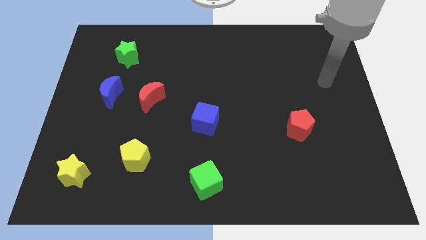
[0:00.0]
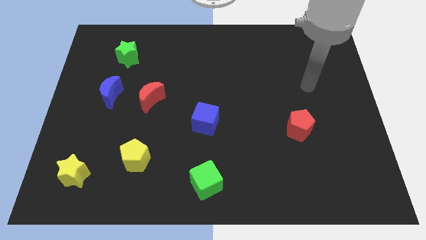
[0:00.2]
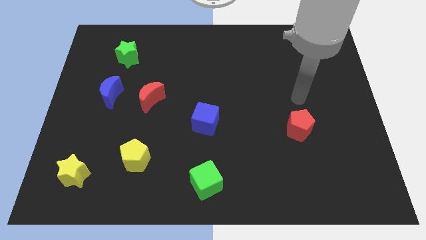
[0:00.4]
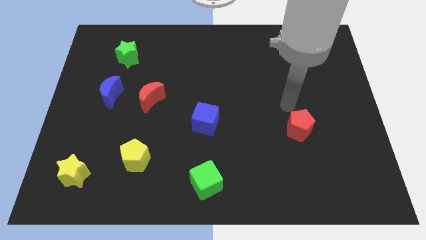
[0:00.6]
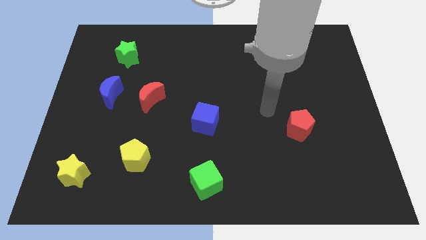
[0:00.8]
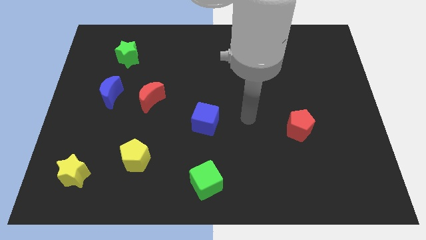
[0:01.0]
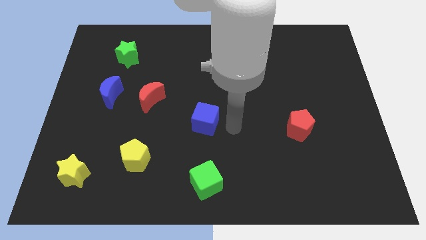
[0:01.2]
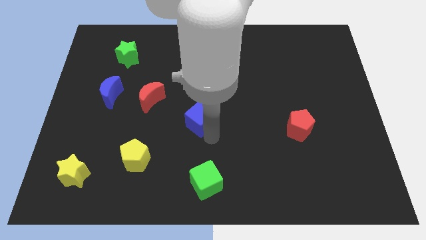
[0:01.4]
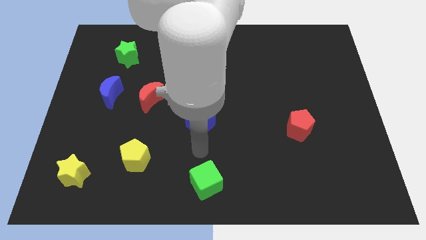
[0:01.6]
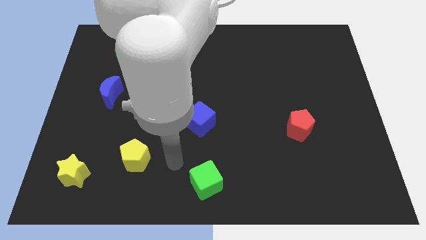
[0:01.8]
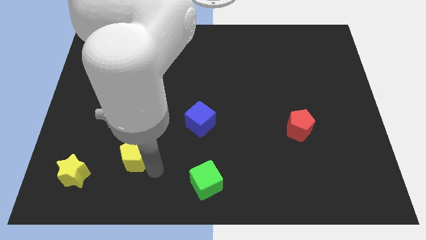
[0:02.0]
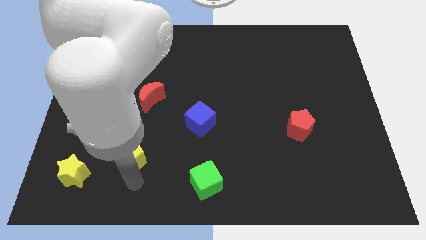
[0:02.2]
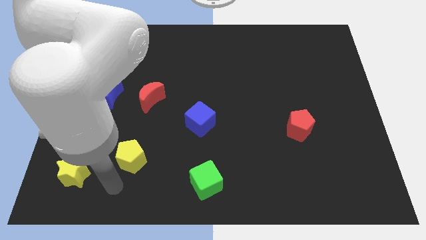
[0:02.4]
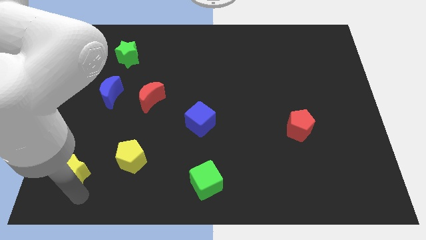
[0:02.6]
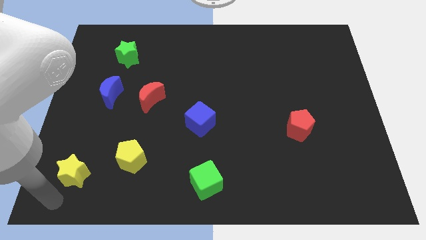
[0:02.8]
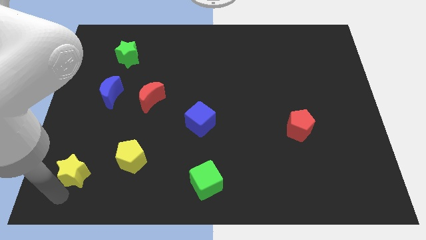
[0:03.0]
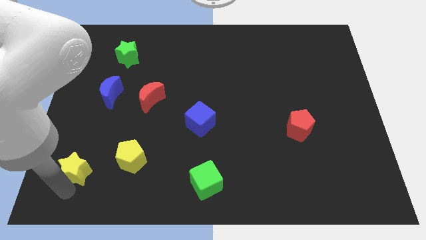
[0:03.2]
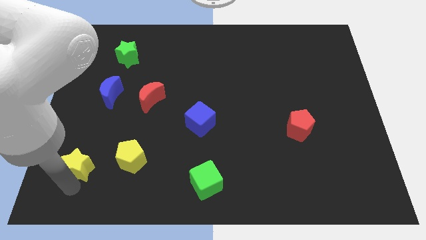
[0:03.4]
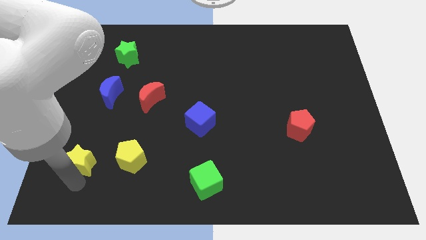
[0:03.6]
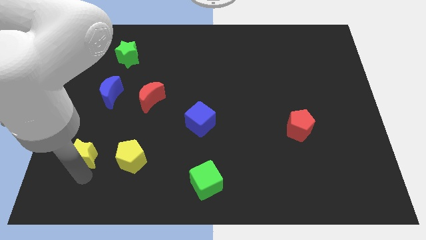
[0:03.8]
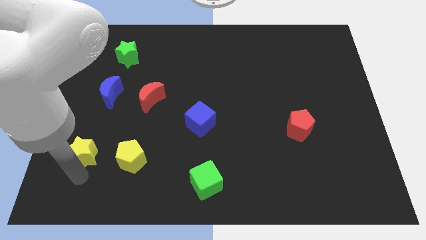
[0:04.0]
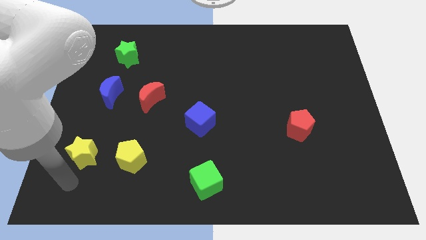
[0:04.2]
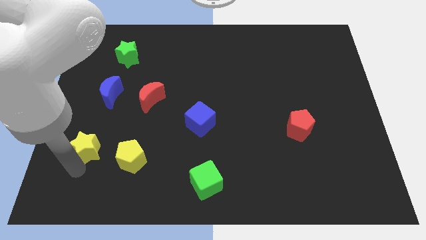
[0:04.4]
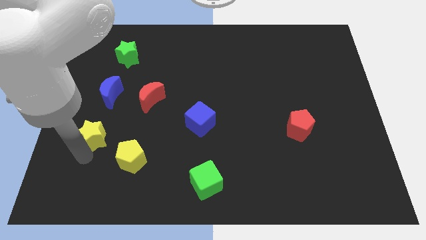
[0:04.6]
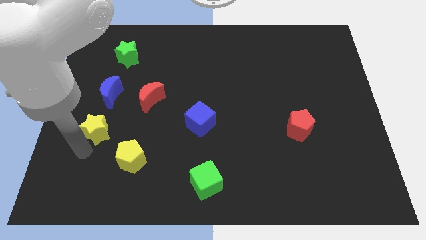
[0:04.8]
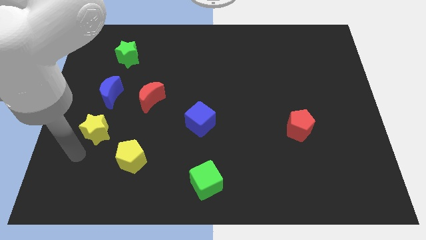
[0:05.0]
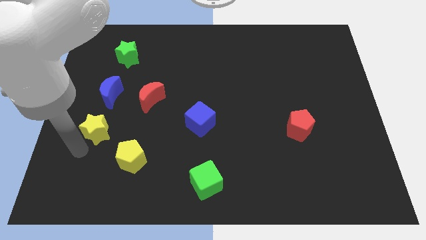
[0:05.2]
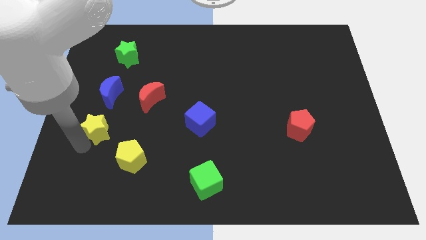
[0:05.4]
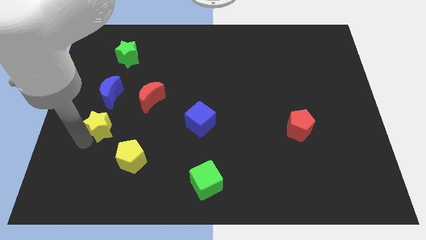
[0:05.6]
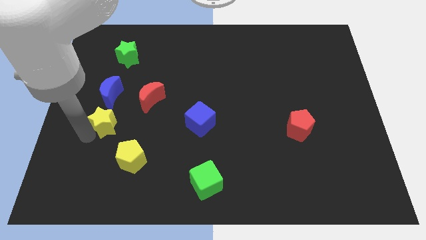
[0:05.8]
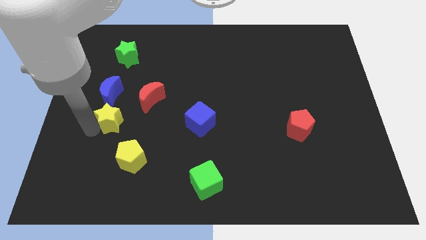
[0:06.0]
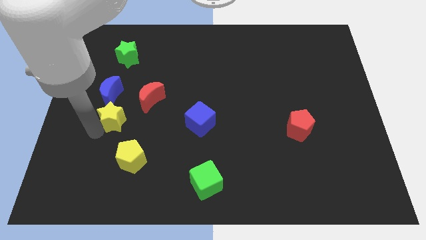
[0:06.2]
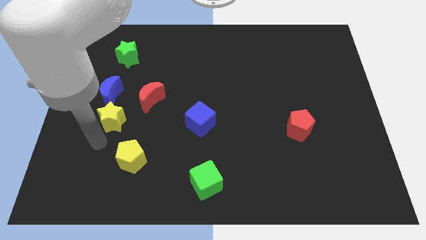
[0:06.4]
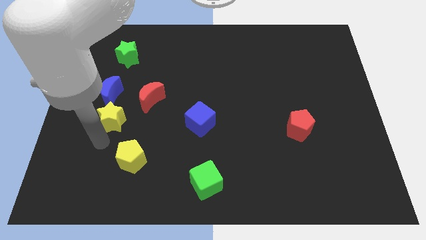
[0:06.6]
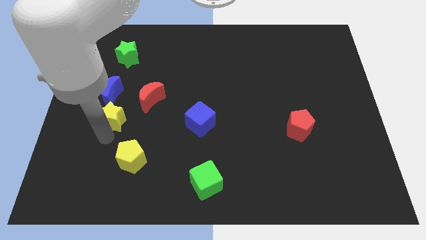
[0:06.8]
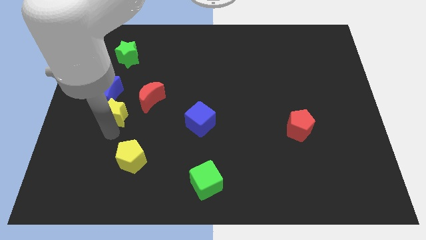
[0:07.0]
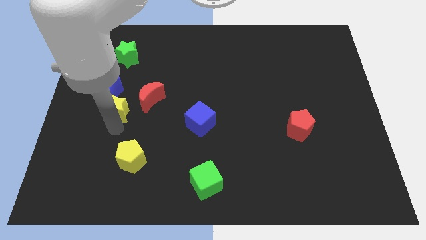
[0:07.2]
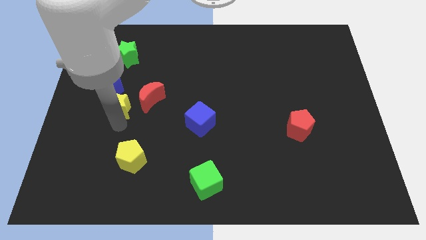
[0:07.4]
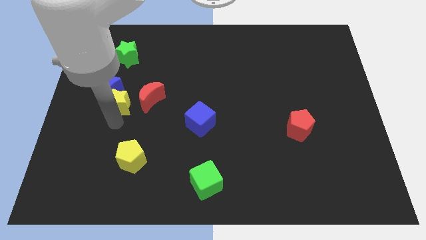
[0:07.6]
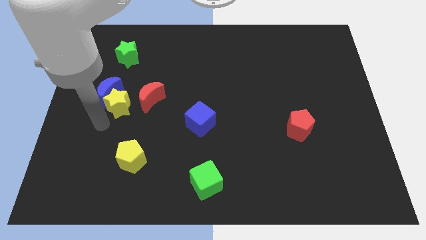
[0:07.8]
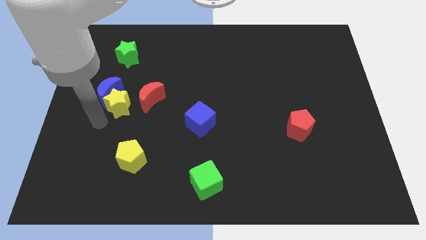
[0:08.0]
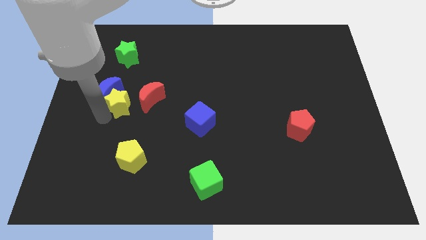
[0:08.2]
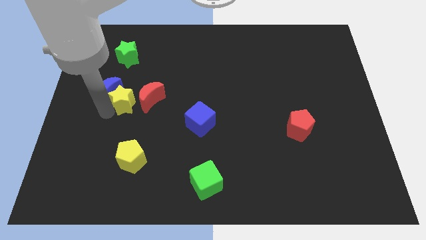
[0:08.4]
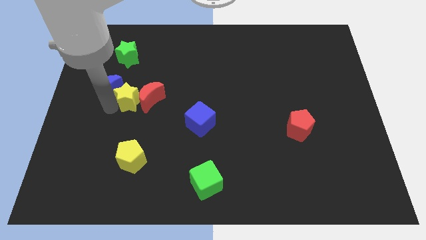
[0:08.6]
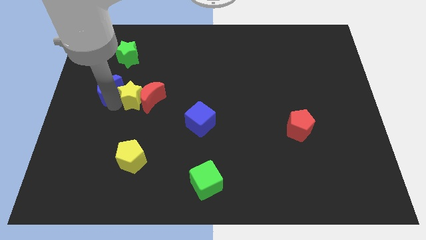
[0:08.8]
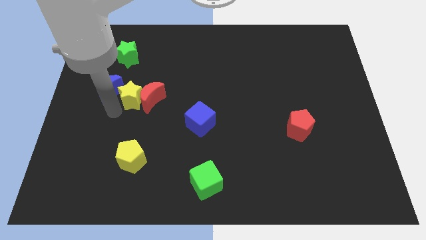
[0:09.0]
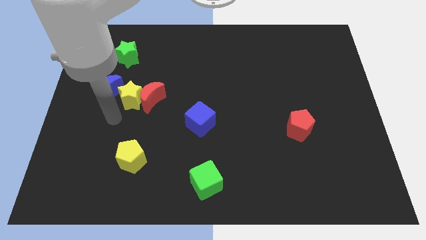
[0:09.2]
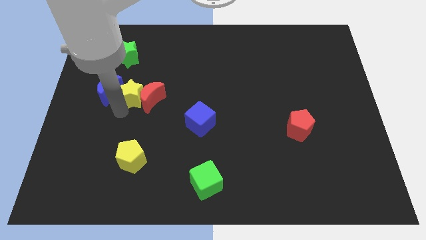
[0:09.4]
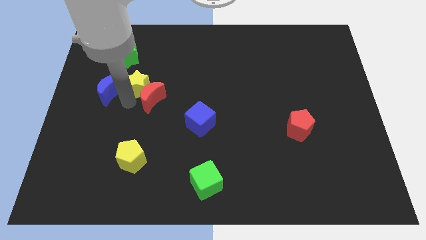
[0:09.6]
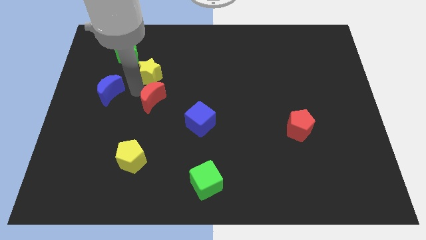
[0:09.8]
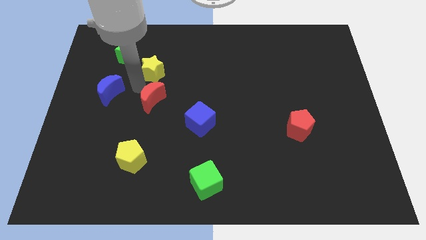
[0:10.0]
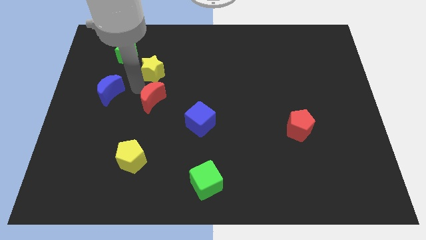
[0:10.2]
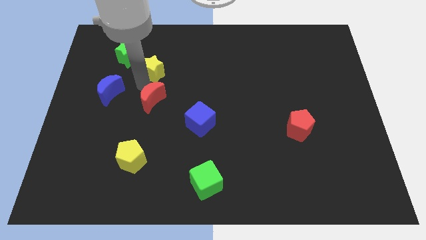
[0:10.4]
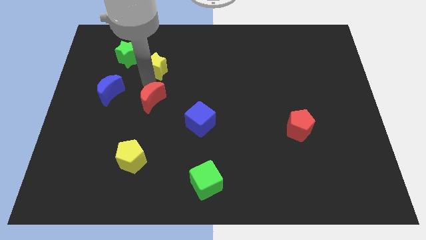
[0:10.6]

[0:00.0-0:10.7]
put the yellow star to the right side of the green star

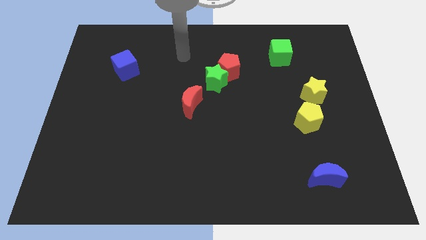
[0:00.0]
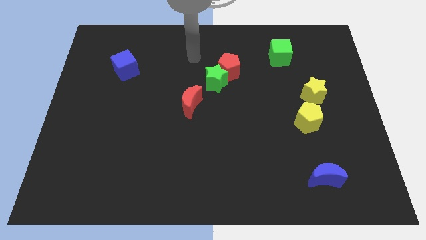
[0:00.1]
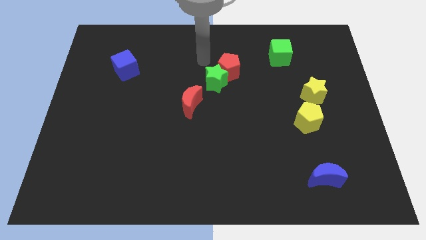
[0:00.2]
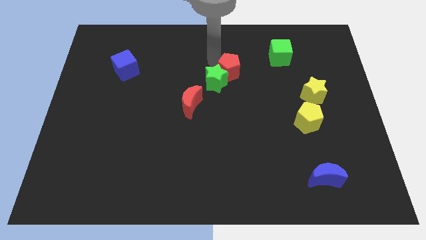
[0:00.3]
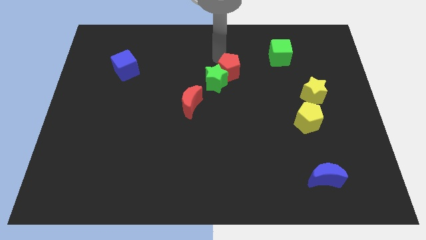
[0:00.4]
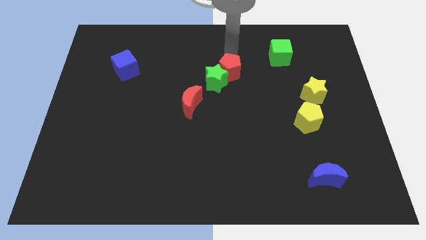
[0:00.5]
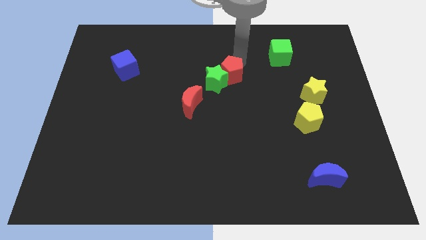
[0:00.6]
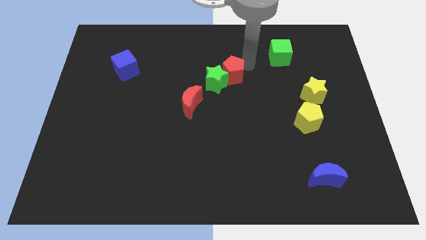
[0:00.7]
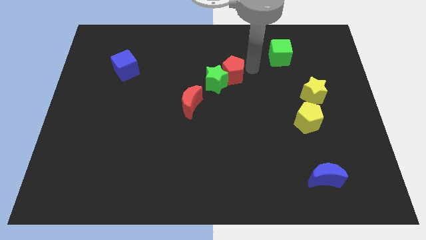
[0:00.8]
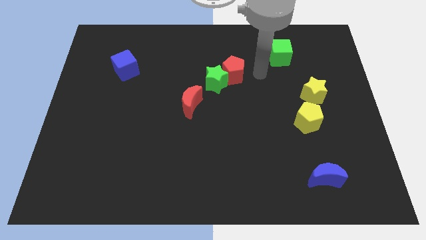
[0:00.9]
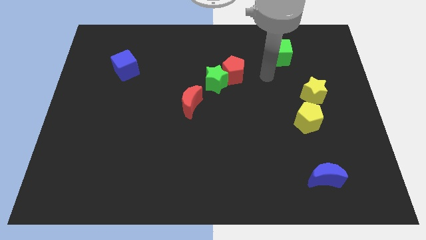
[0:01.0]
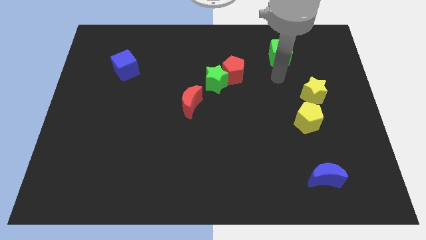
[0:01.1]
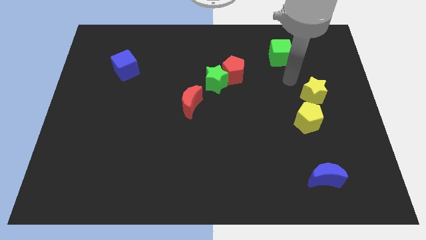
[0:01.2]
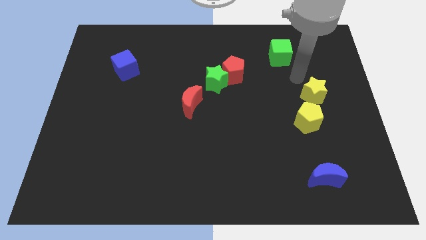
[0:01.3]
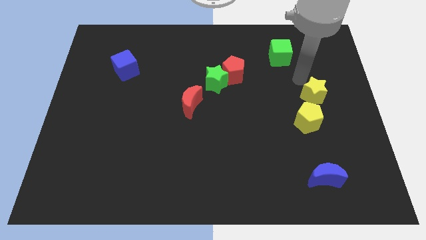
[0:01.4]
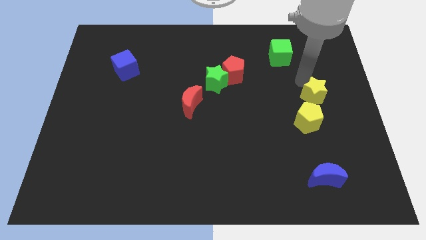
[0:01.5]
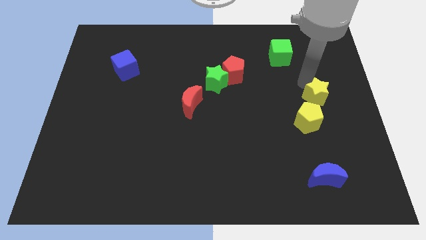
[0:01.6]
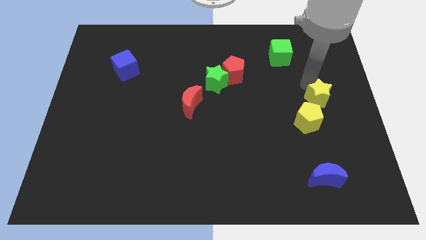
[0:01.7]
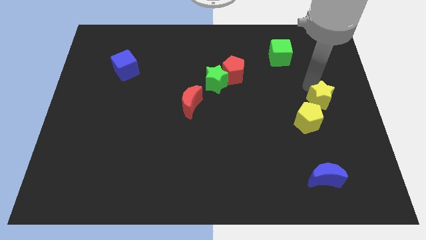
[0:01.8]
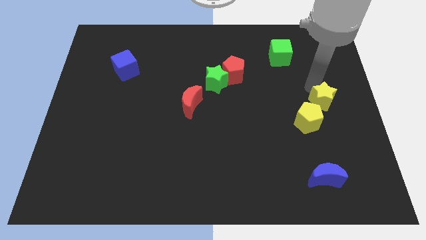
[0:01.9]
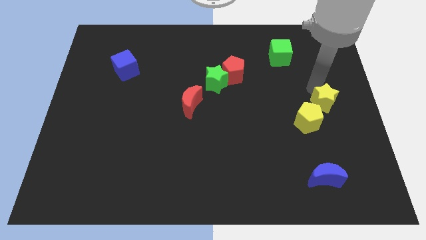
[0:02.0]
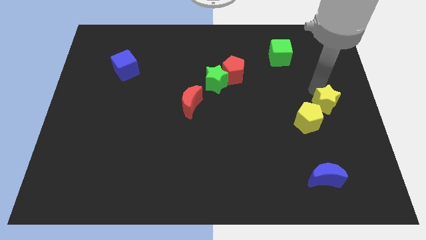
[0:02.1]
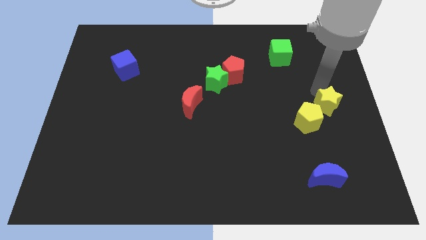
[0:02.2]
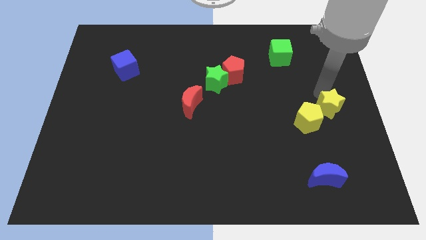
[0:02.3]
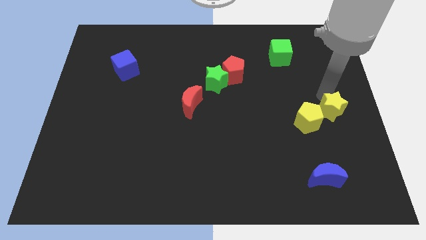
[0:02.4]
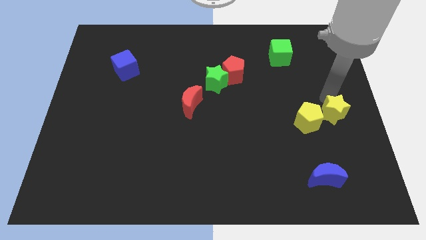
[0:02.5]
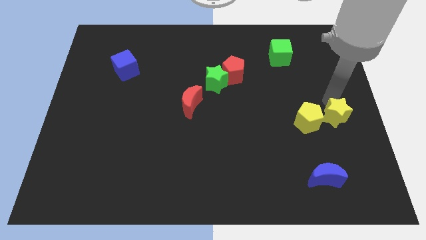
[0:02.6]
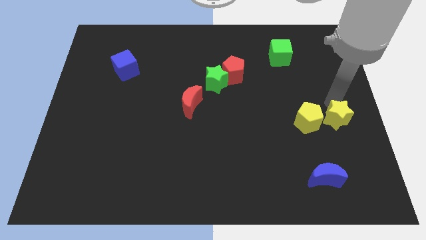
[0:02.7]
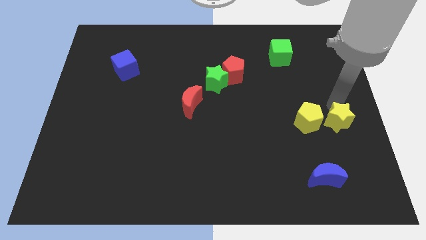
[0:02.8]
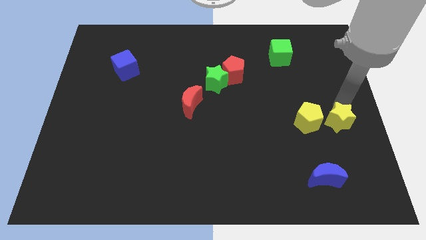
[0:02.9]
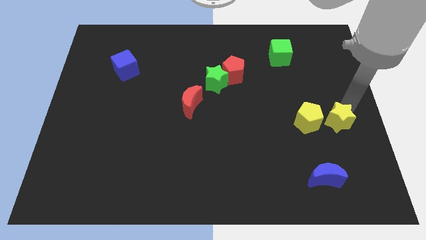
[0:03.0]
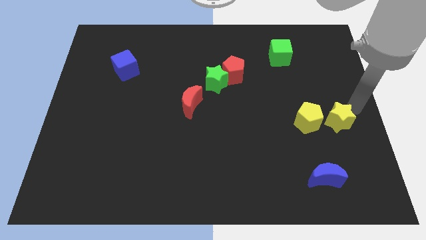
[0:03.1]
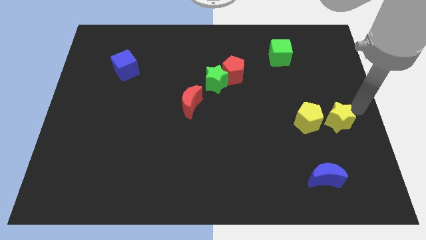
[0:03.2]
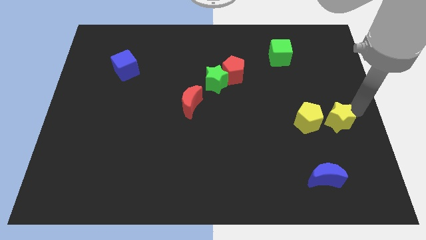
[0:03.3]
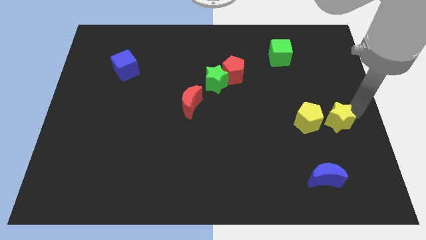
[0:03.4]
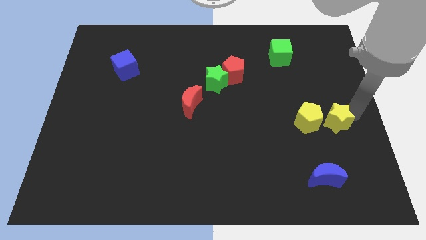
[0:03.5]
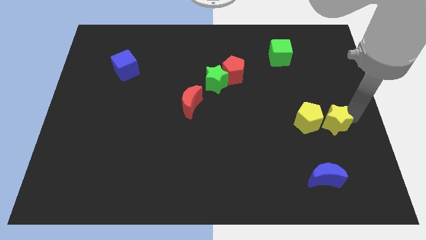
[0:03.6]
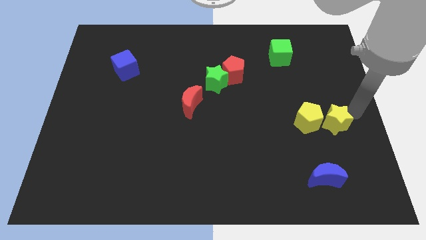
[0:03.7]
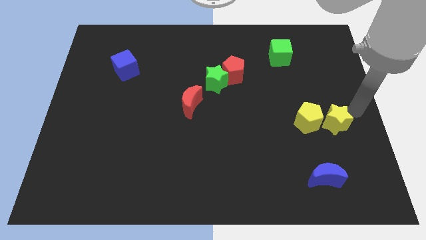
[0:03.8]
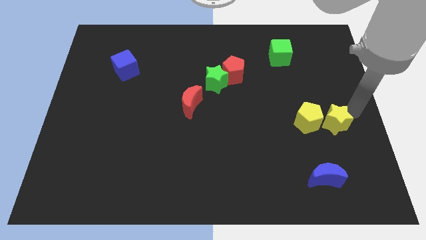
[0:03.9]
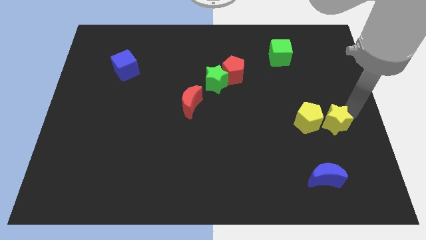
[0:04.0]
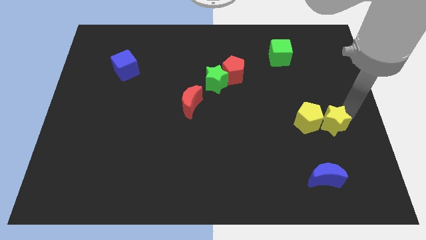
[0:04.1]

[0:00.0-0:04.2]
slide the yellow star to the top side of the blue moon
